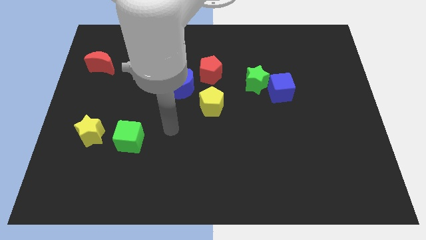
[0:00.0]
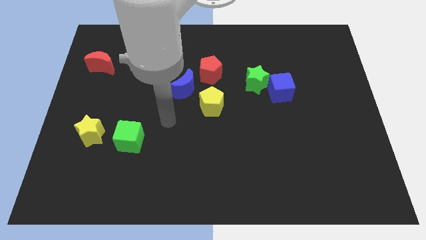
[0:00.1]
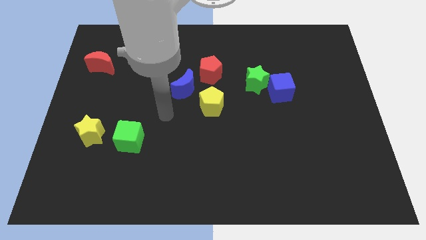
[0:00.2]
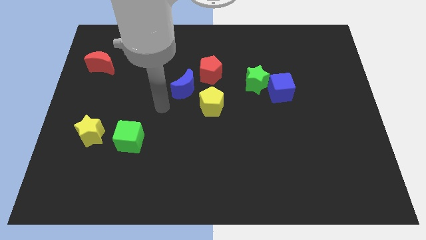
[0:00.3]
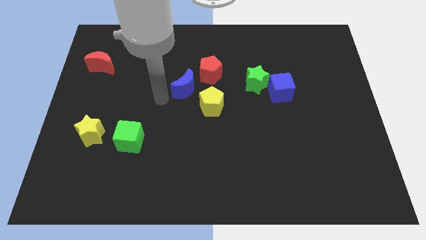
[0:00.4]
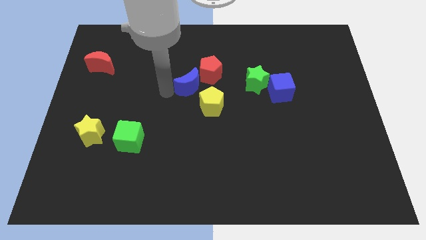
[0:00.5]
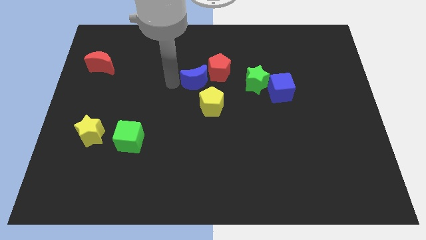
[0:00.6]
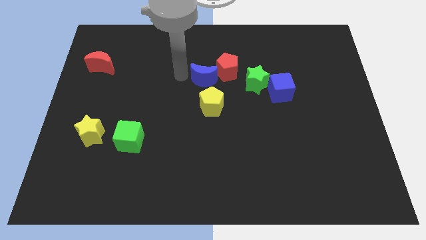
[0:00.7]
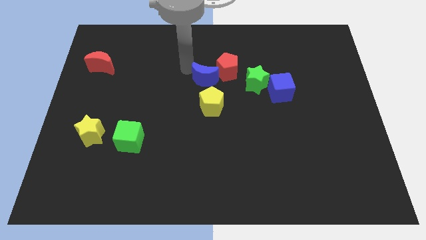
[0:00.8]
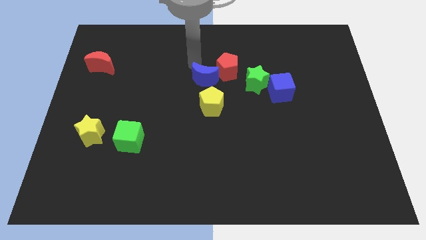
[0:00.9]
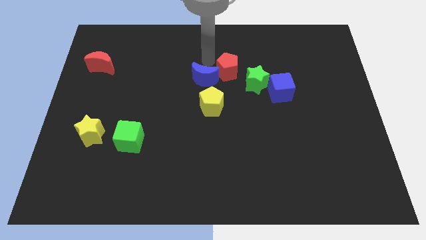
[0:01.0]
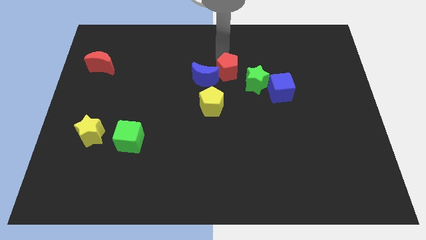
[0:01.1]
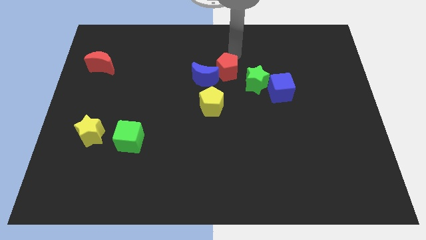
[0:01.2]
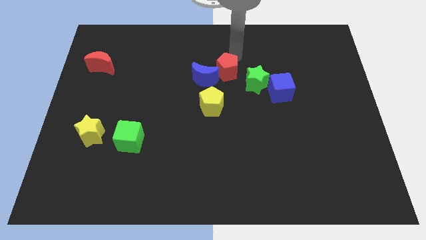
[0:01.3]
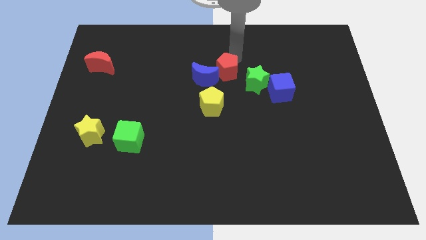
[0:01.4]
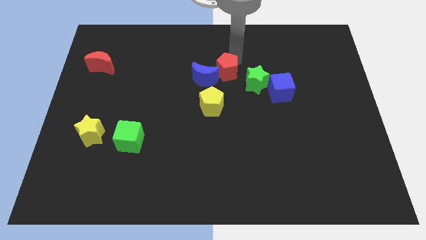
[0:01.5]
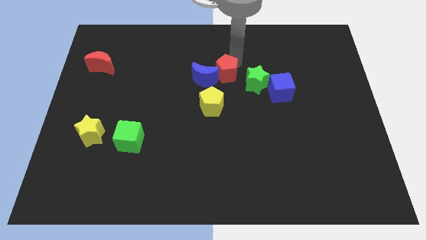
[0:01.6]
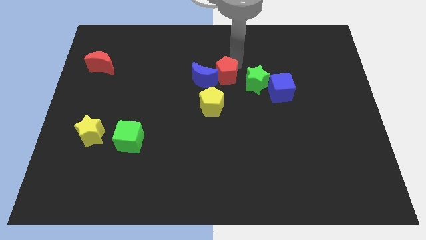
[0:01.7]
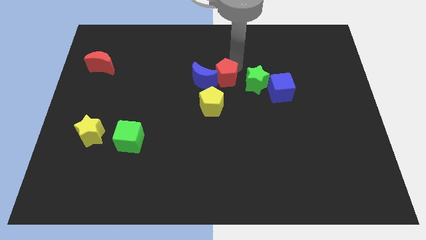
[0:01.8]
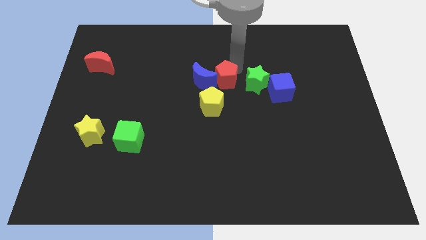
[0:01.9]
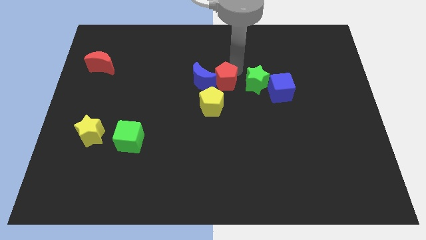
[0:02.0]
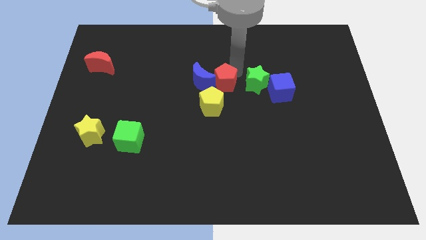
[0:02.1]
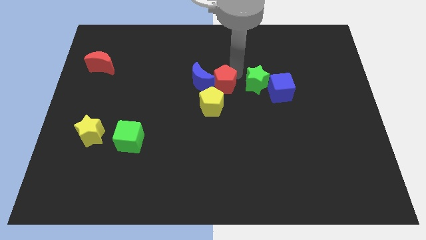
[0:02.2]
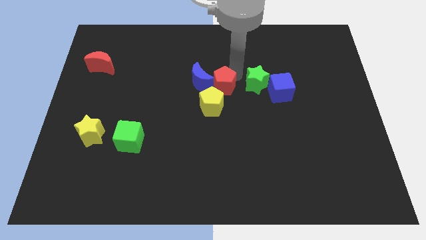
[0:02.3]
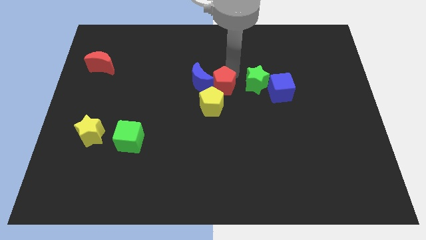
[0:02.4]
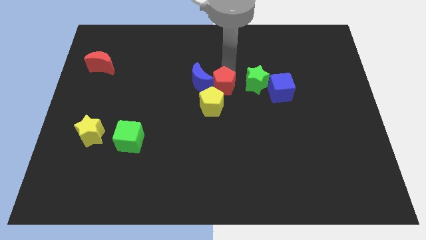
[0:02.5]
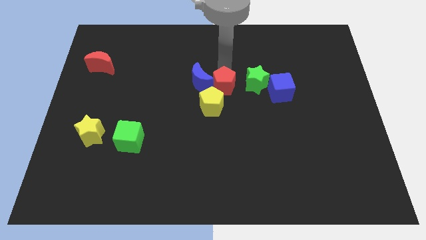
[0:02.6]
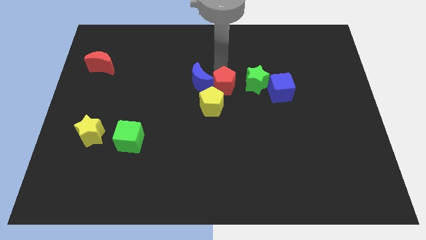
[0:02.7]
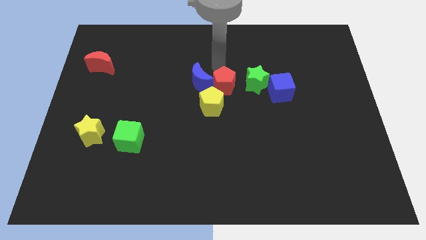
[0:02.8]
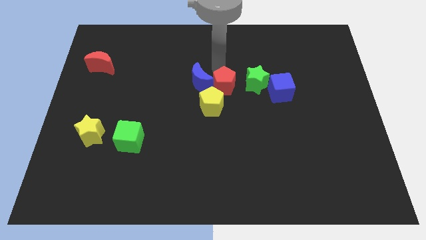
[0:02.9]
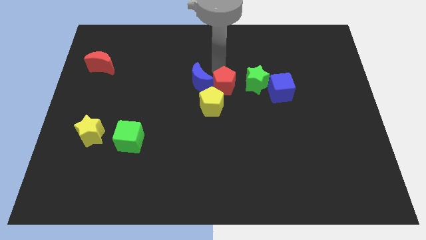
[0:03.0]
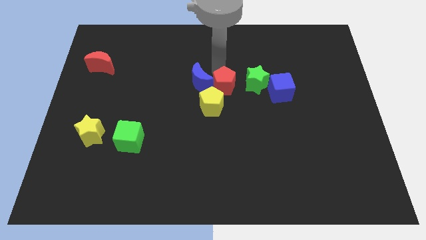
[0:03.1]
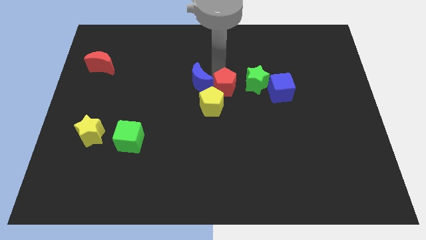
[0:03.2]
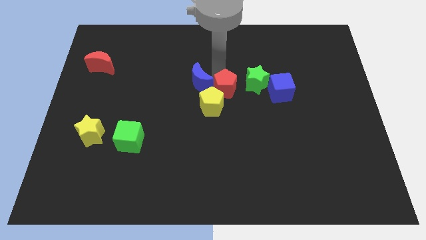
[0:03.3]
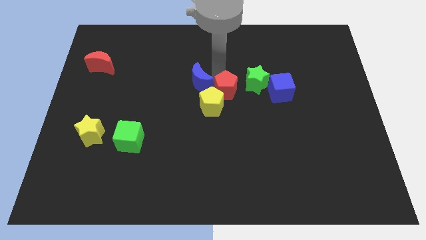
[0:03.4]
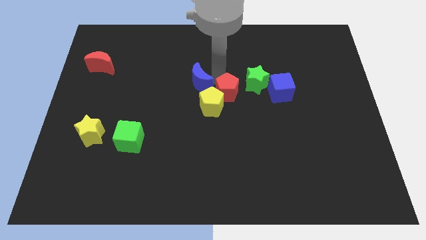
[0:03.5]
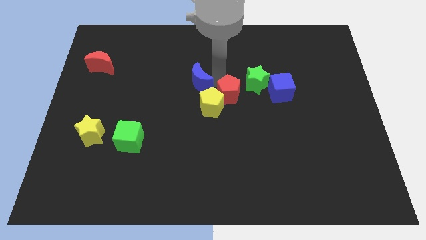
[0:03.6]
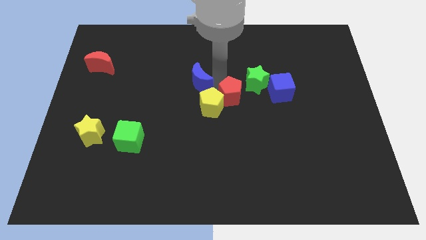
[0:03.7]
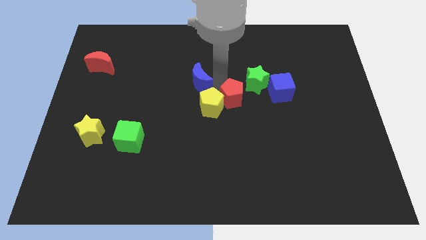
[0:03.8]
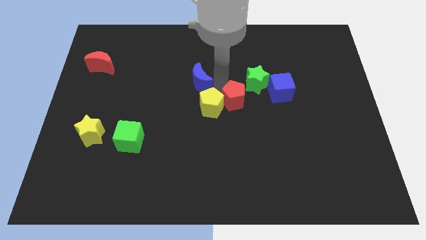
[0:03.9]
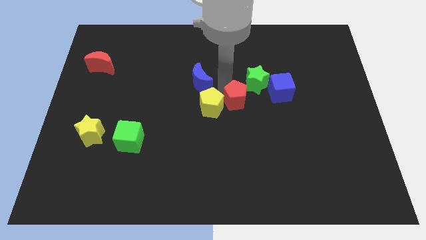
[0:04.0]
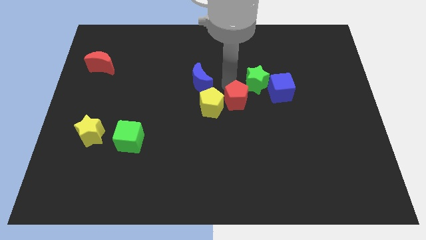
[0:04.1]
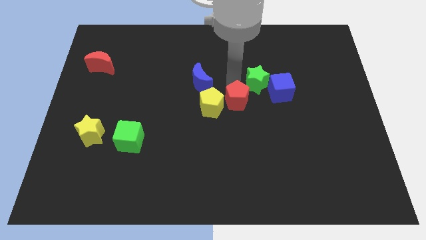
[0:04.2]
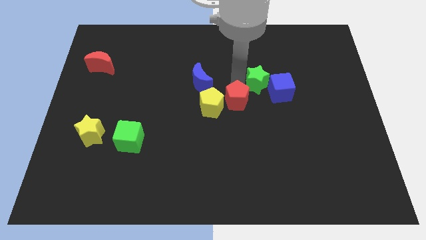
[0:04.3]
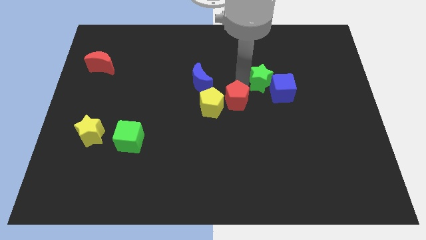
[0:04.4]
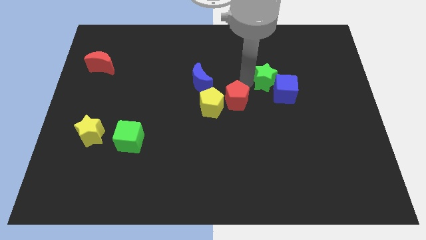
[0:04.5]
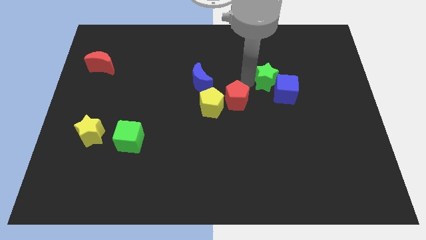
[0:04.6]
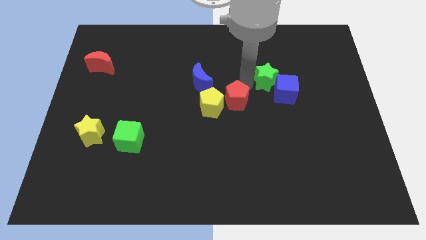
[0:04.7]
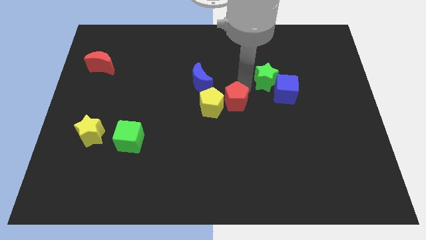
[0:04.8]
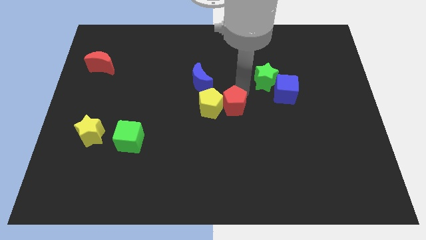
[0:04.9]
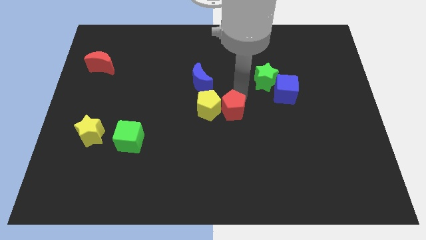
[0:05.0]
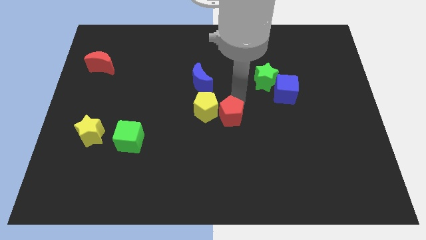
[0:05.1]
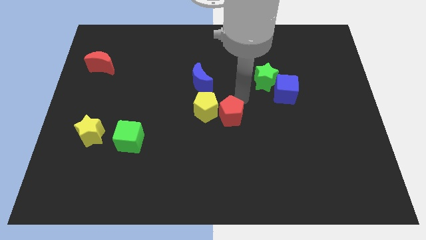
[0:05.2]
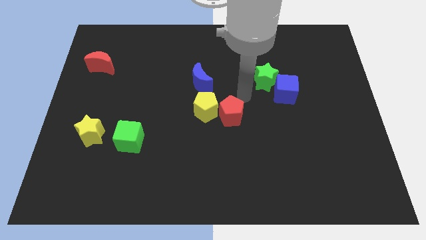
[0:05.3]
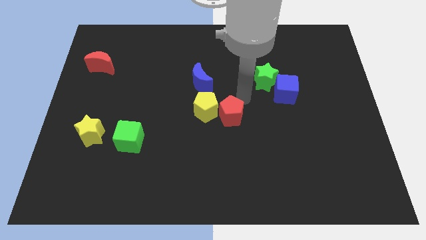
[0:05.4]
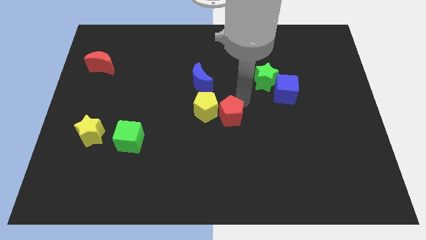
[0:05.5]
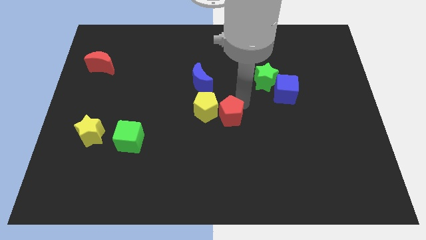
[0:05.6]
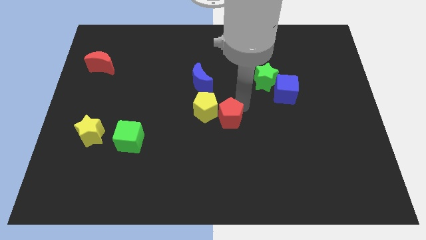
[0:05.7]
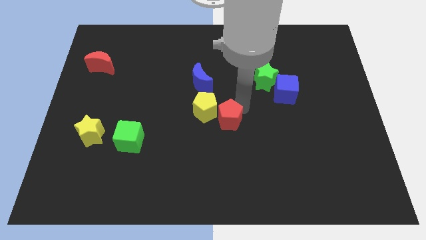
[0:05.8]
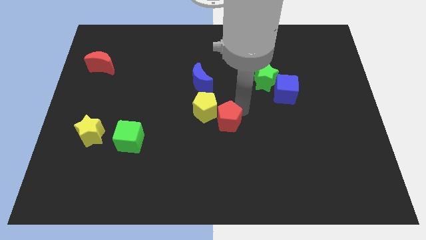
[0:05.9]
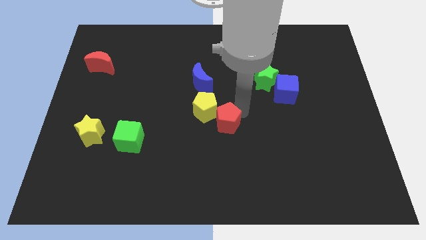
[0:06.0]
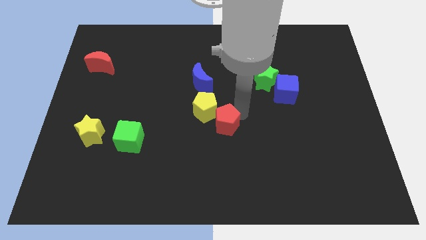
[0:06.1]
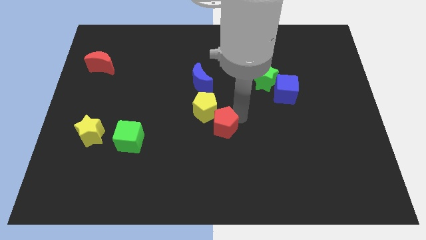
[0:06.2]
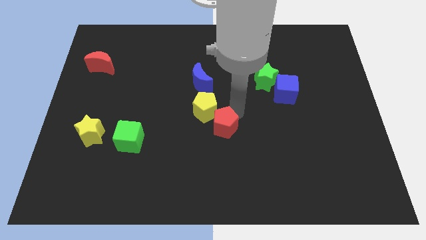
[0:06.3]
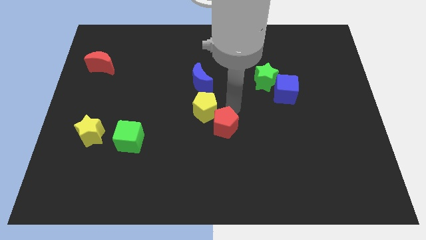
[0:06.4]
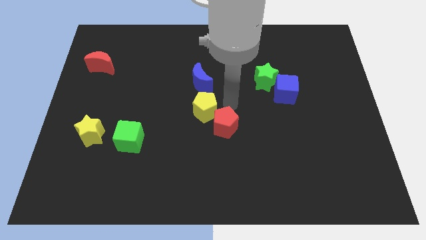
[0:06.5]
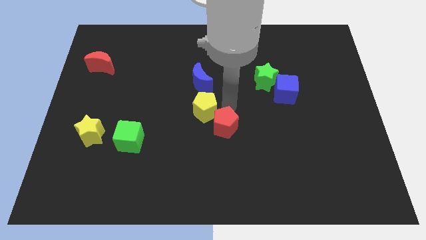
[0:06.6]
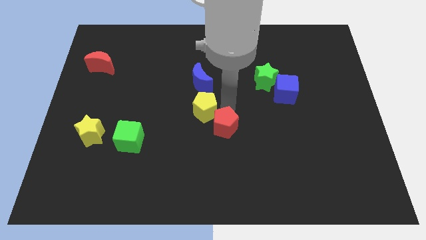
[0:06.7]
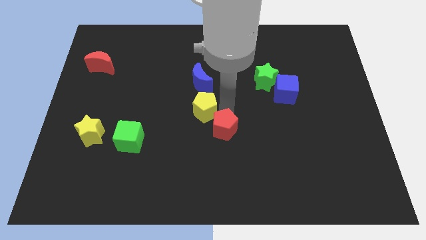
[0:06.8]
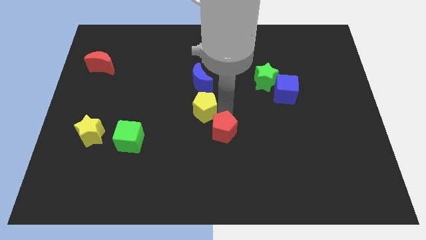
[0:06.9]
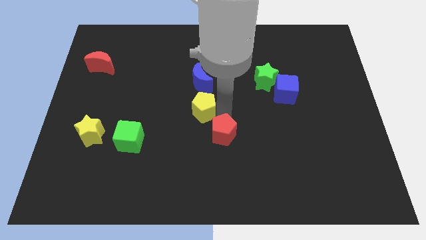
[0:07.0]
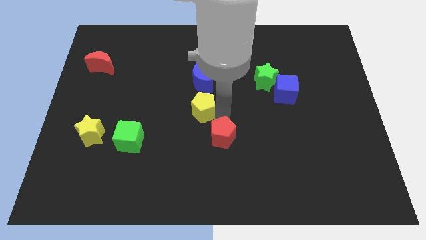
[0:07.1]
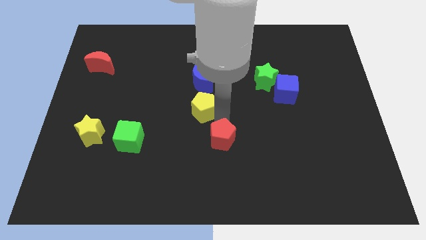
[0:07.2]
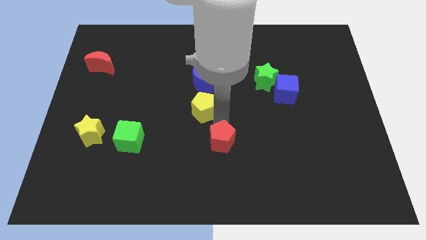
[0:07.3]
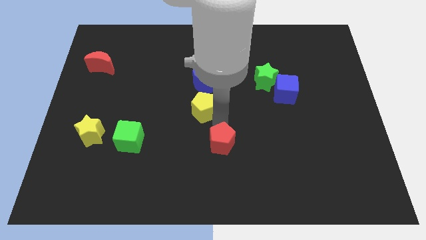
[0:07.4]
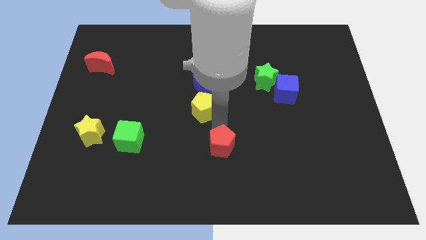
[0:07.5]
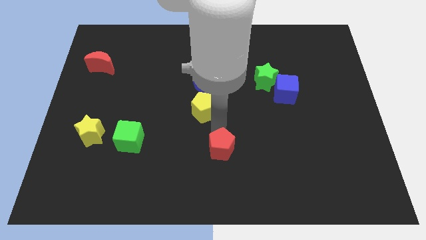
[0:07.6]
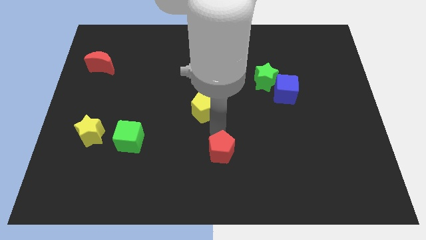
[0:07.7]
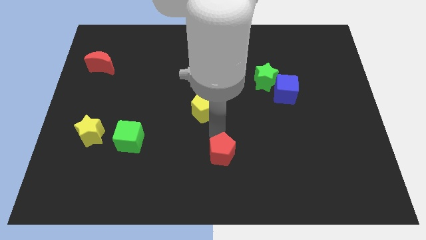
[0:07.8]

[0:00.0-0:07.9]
move the red pentagon to the bottom
